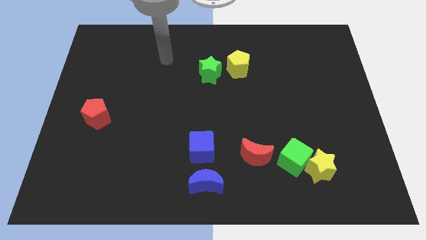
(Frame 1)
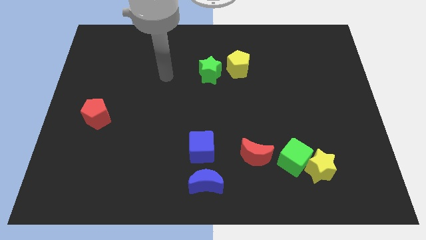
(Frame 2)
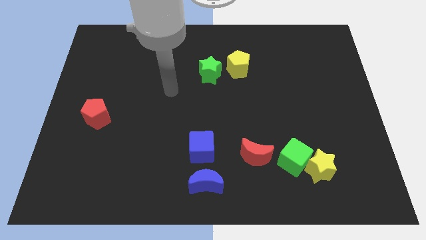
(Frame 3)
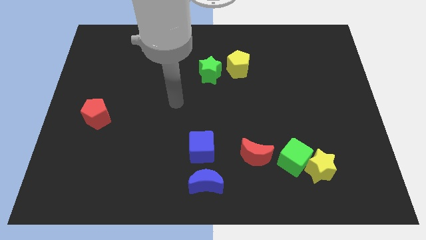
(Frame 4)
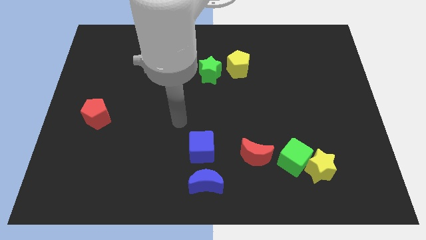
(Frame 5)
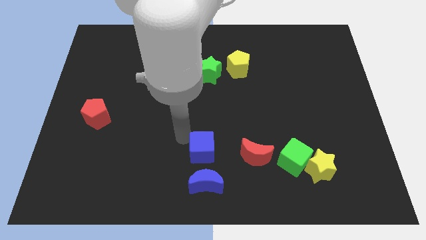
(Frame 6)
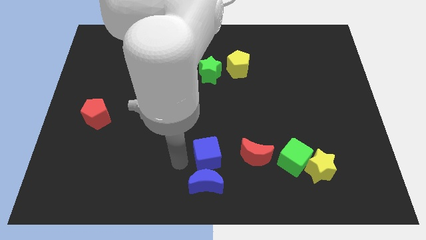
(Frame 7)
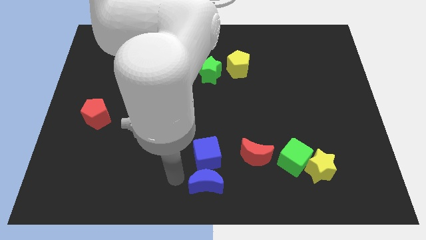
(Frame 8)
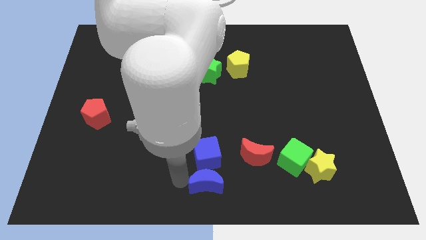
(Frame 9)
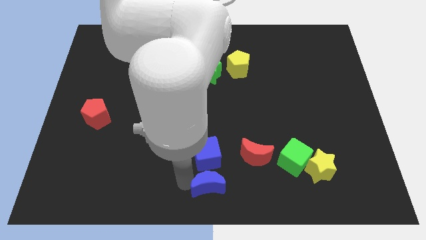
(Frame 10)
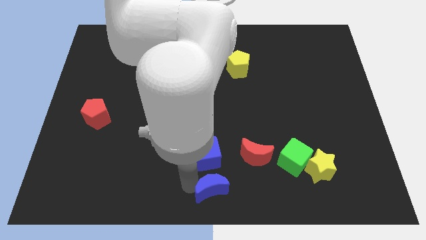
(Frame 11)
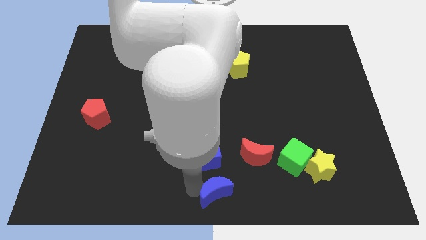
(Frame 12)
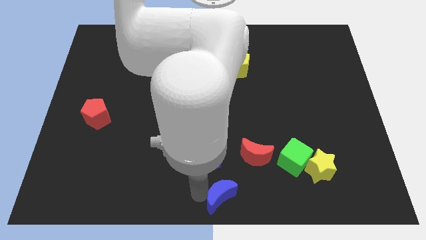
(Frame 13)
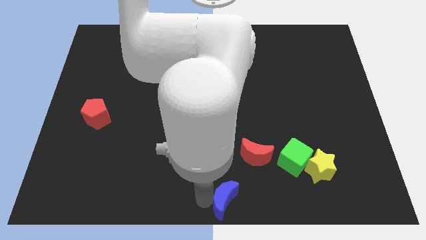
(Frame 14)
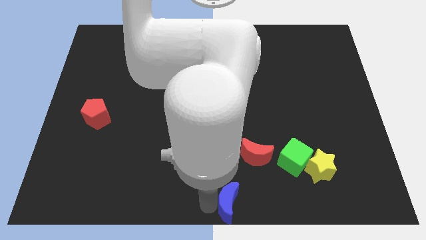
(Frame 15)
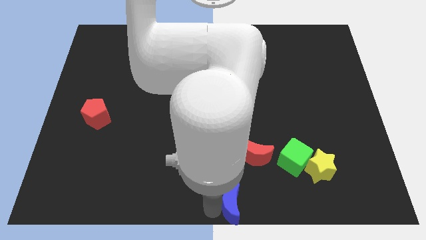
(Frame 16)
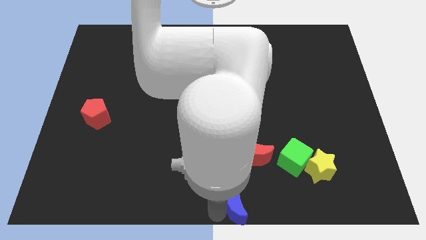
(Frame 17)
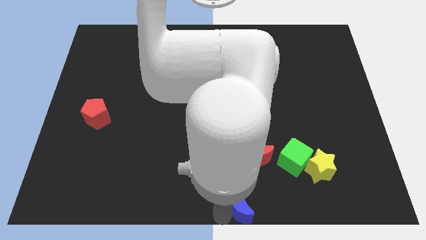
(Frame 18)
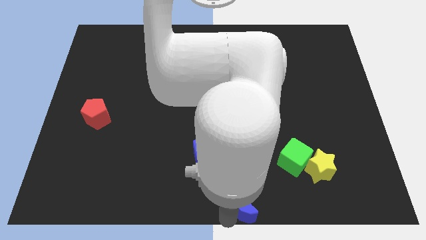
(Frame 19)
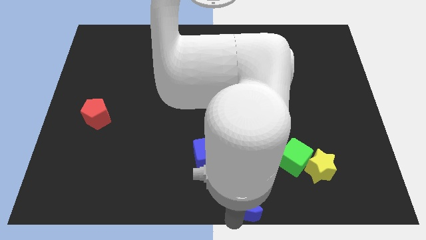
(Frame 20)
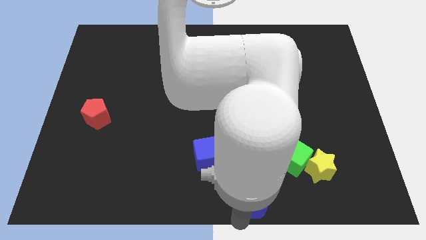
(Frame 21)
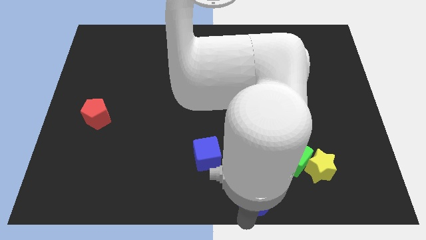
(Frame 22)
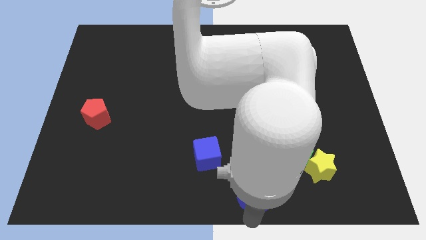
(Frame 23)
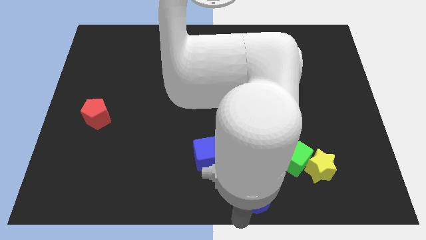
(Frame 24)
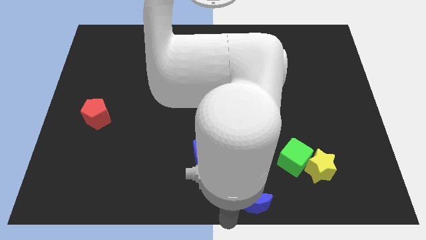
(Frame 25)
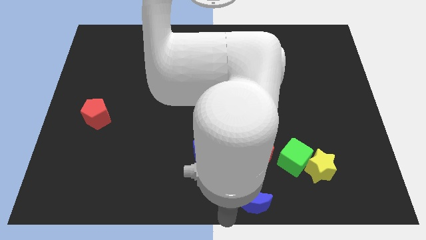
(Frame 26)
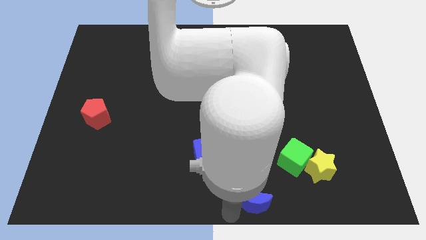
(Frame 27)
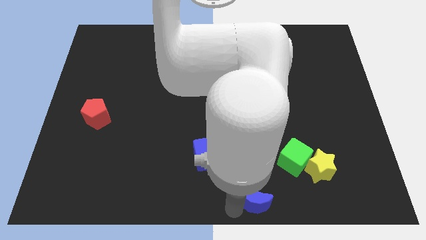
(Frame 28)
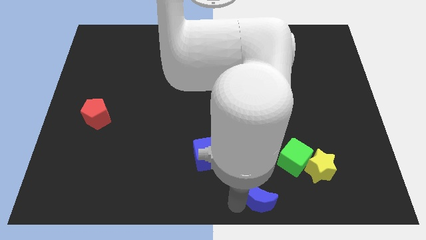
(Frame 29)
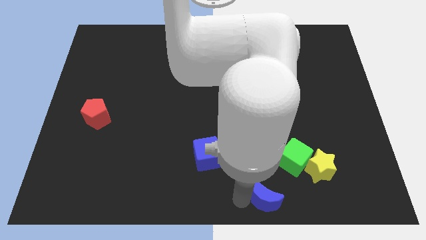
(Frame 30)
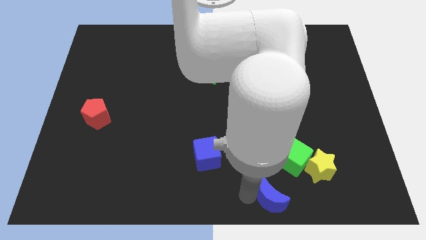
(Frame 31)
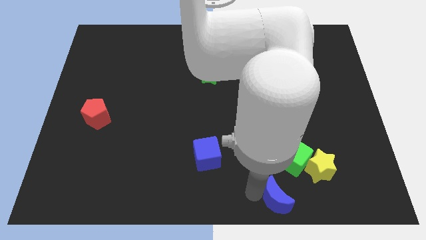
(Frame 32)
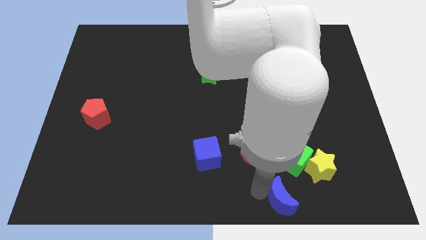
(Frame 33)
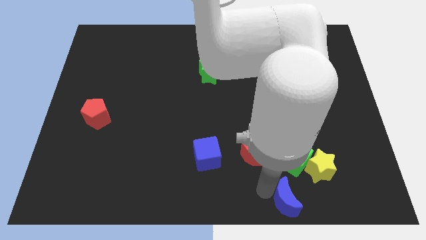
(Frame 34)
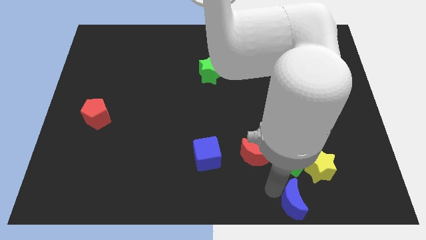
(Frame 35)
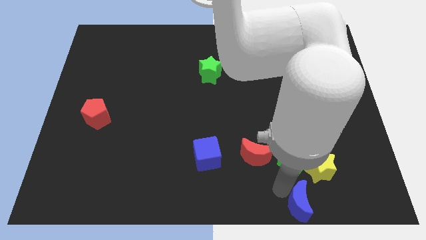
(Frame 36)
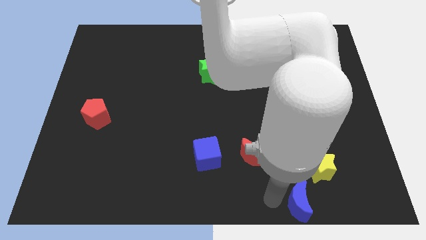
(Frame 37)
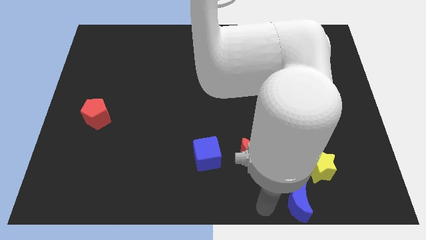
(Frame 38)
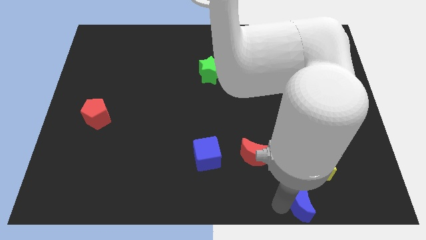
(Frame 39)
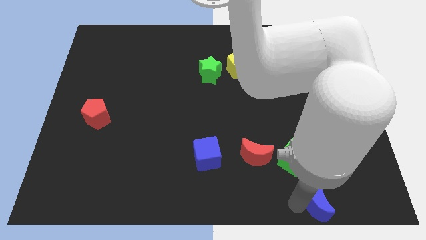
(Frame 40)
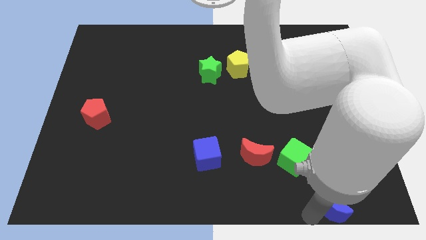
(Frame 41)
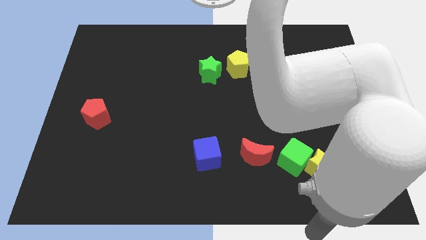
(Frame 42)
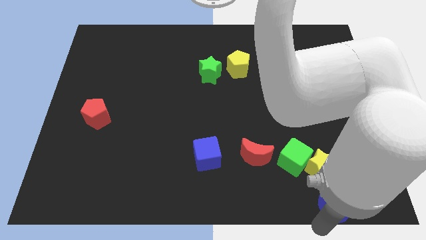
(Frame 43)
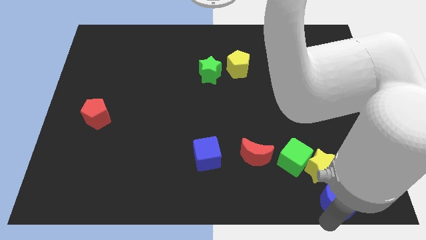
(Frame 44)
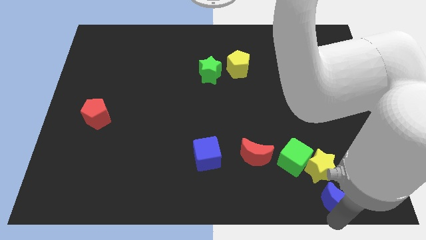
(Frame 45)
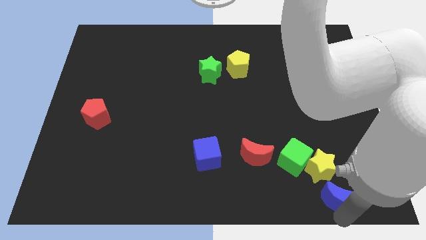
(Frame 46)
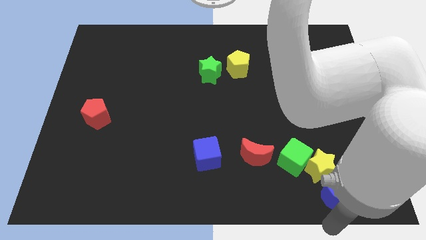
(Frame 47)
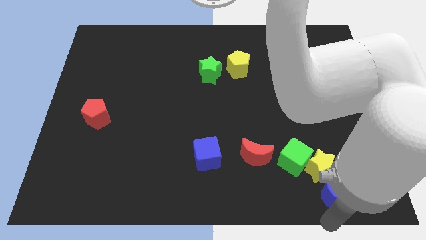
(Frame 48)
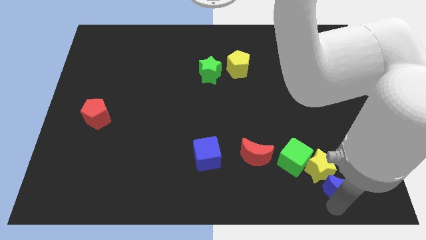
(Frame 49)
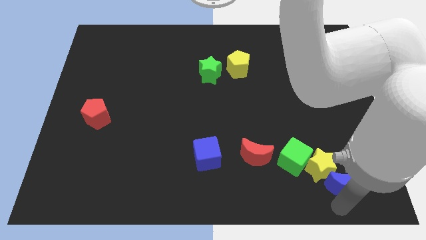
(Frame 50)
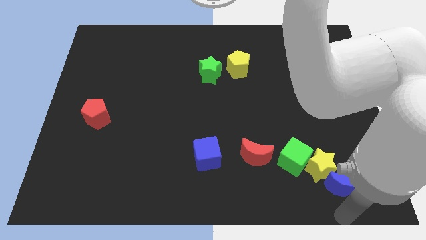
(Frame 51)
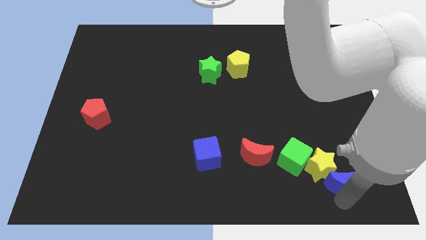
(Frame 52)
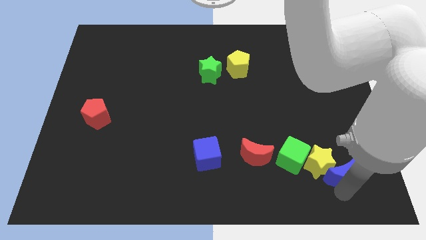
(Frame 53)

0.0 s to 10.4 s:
put the blue moon right of the green cube

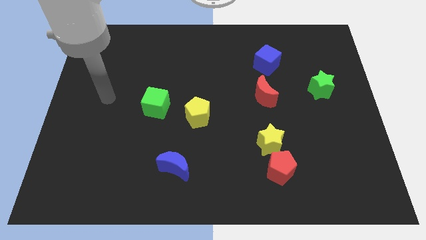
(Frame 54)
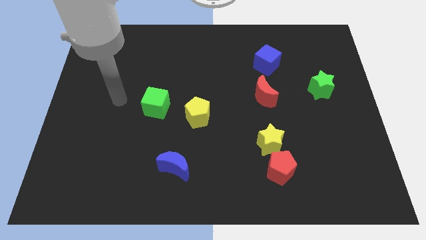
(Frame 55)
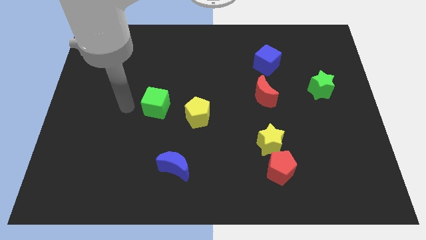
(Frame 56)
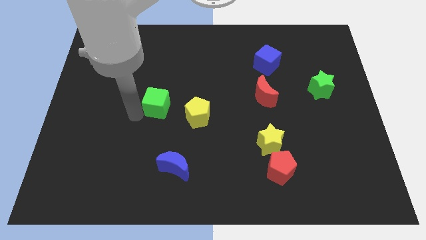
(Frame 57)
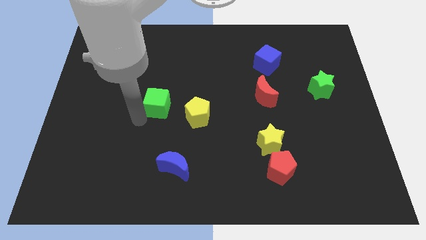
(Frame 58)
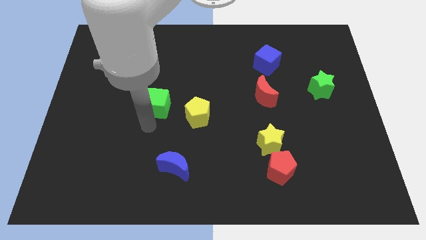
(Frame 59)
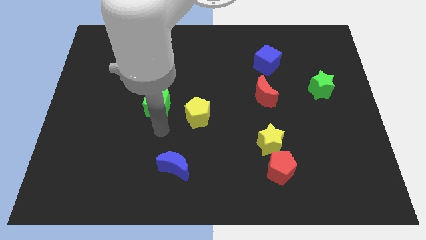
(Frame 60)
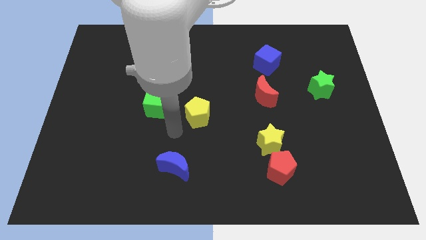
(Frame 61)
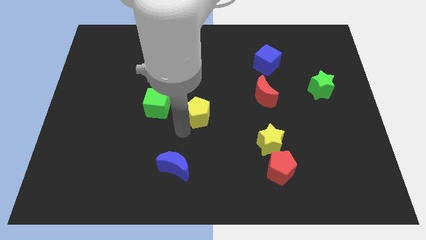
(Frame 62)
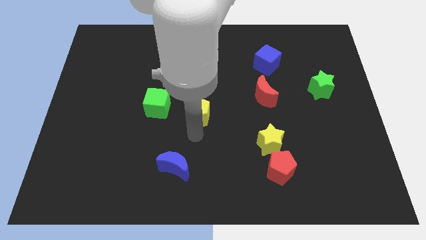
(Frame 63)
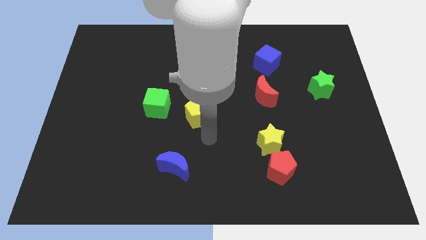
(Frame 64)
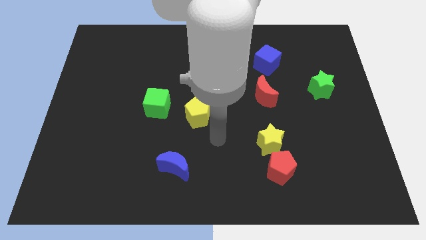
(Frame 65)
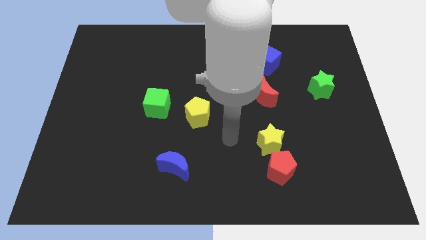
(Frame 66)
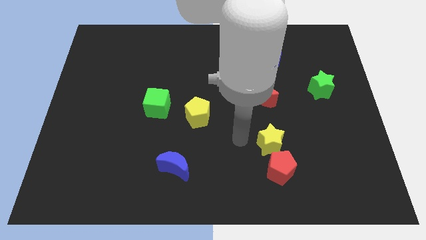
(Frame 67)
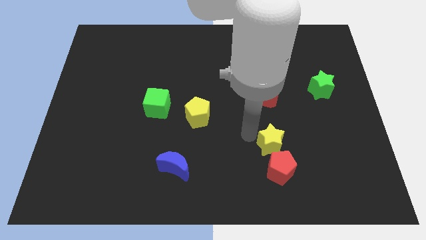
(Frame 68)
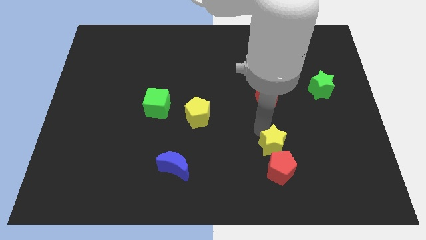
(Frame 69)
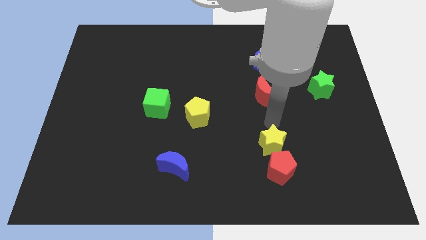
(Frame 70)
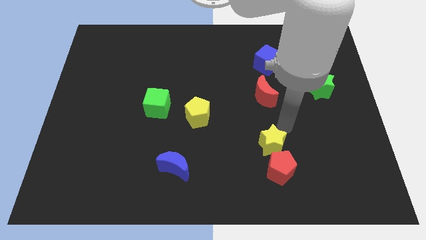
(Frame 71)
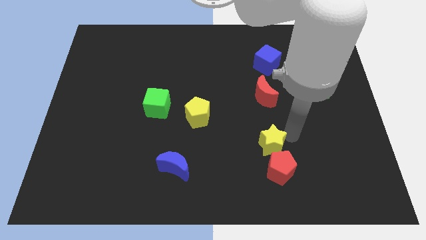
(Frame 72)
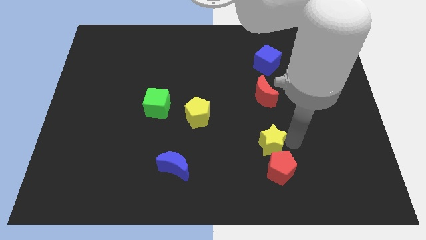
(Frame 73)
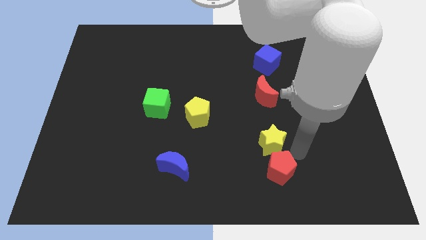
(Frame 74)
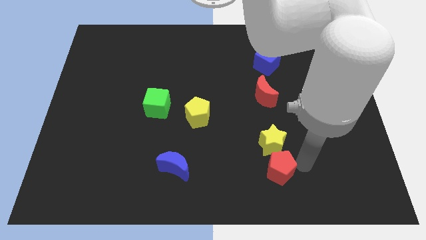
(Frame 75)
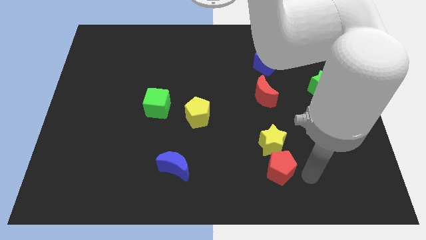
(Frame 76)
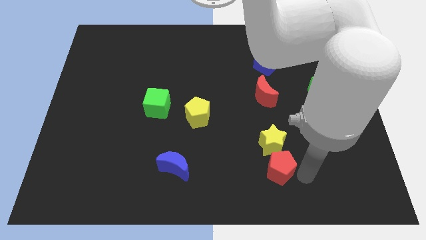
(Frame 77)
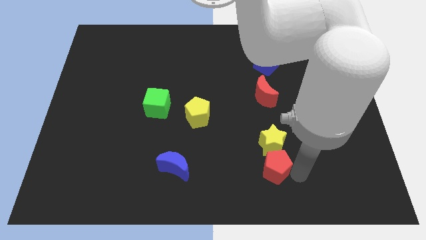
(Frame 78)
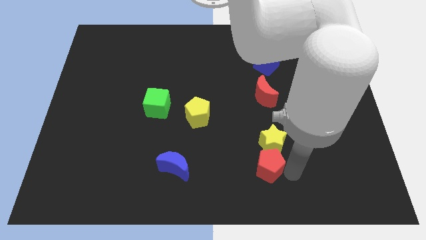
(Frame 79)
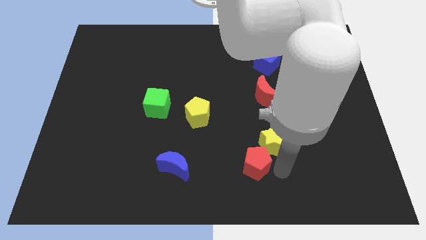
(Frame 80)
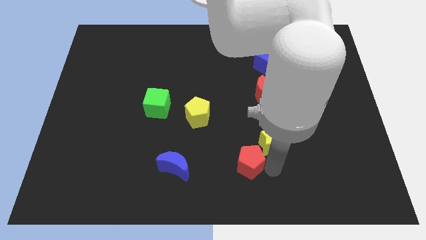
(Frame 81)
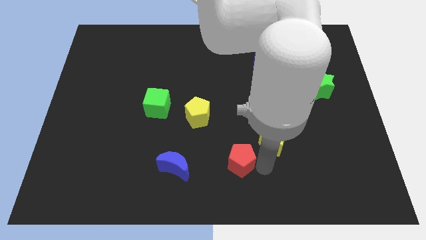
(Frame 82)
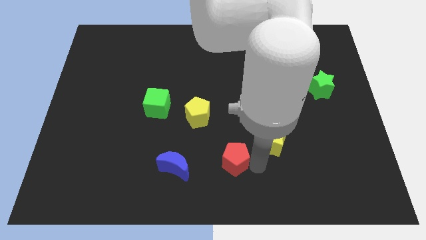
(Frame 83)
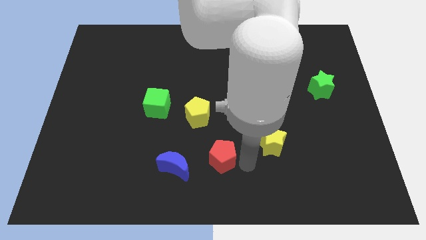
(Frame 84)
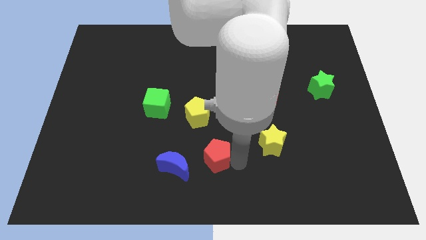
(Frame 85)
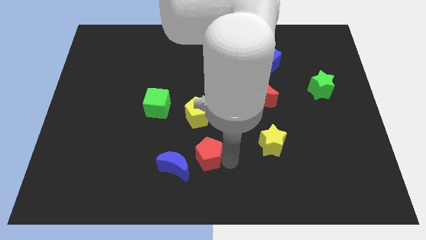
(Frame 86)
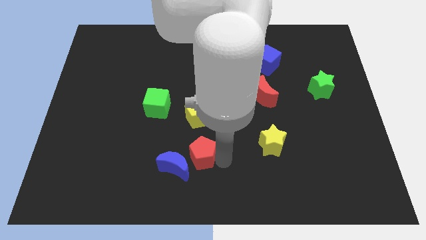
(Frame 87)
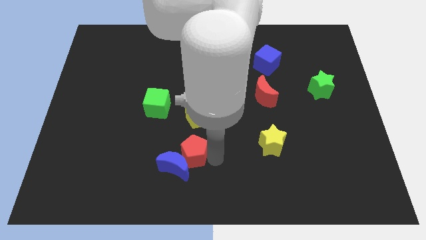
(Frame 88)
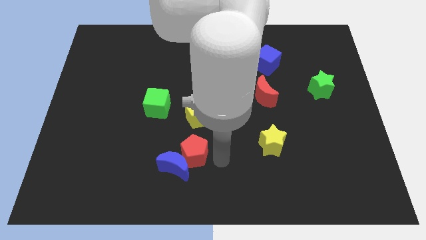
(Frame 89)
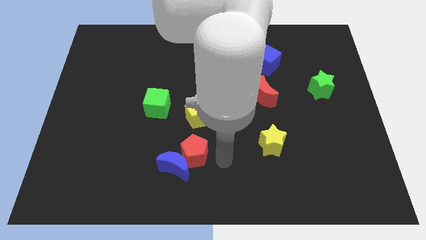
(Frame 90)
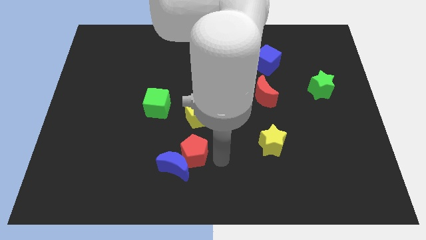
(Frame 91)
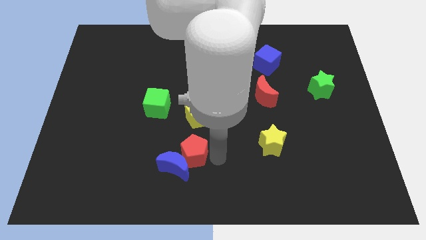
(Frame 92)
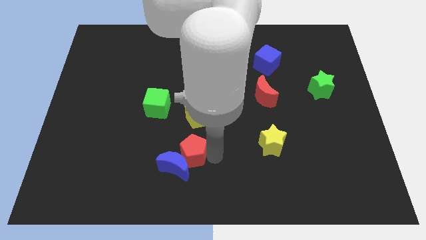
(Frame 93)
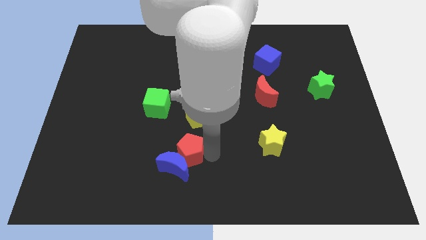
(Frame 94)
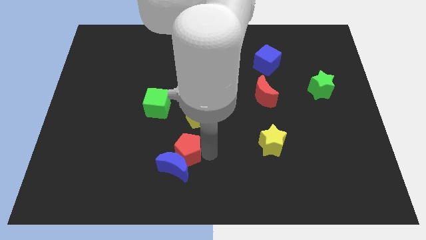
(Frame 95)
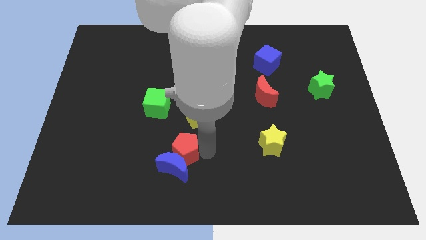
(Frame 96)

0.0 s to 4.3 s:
move the red pentagon diagonally up and to the left of the blue moon
